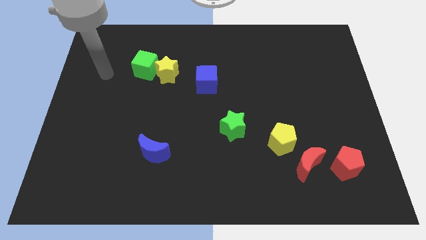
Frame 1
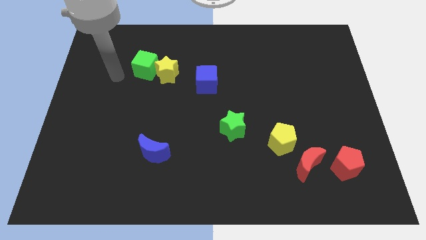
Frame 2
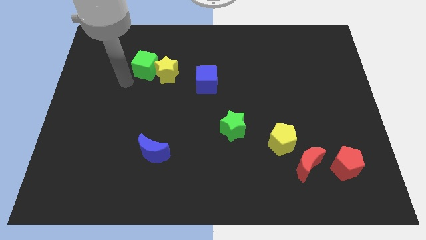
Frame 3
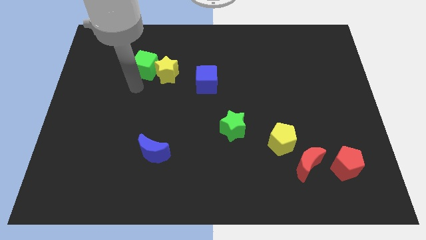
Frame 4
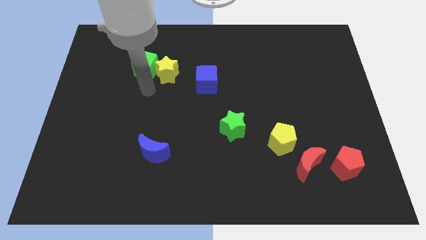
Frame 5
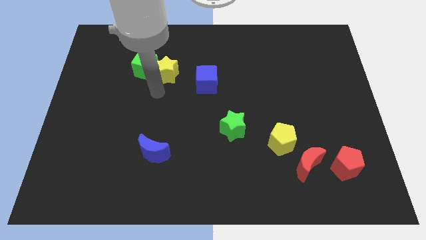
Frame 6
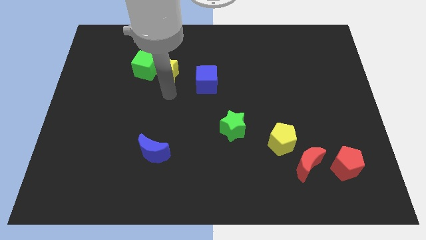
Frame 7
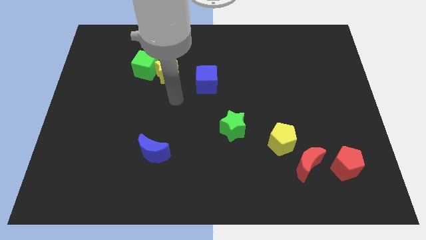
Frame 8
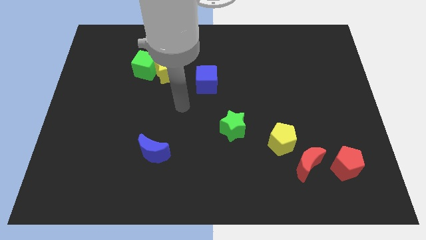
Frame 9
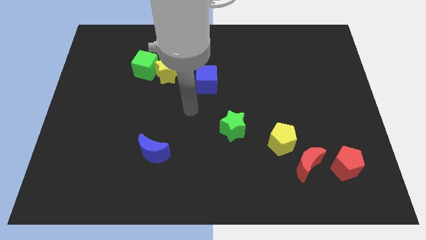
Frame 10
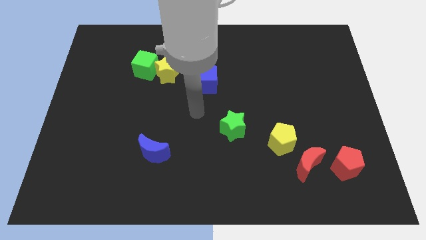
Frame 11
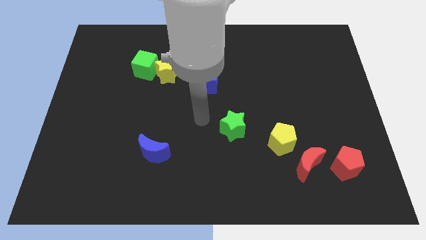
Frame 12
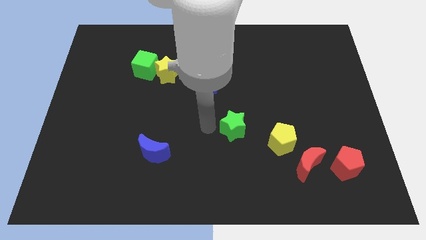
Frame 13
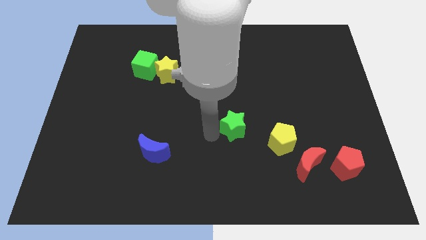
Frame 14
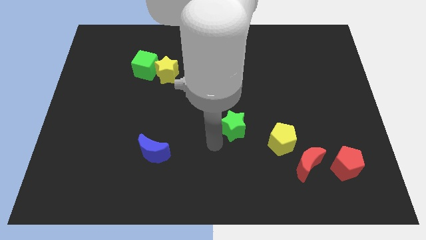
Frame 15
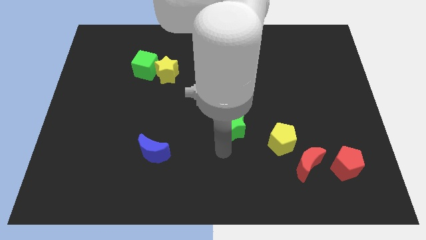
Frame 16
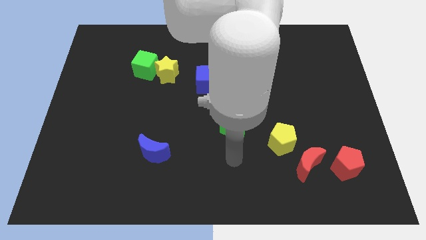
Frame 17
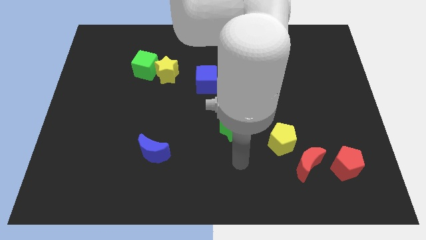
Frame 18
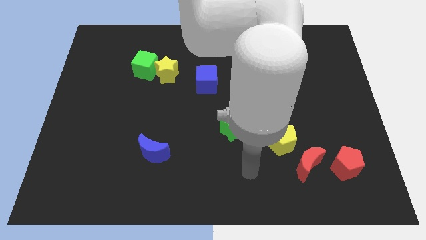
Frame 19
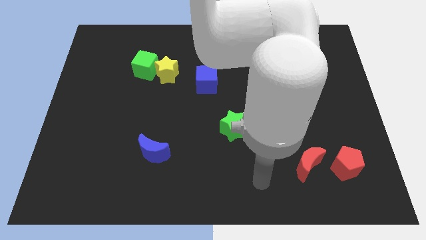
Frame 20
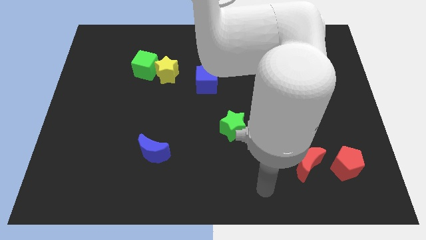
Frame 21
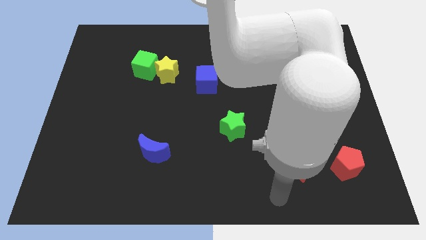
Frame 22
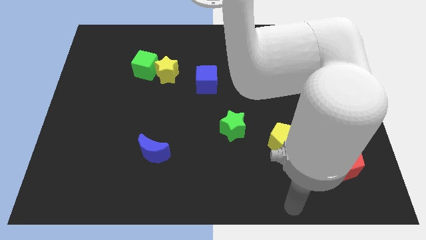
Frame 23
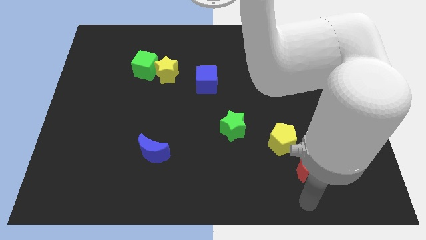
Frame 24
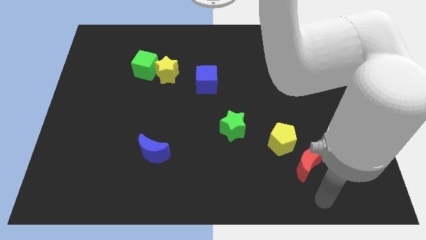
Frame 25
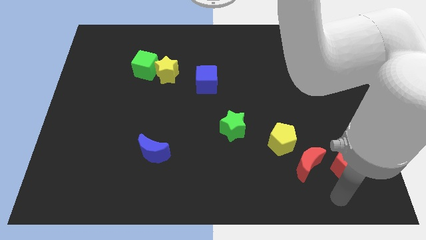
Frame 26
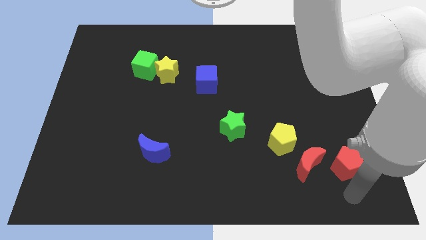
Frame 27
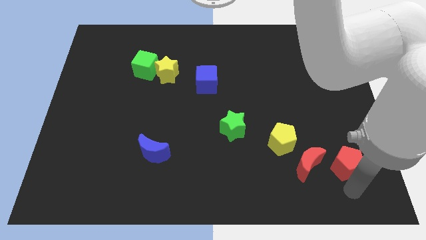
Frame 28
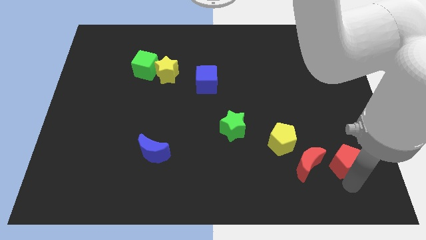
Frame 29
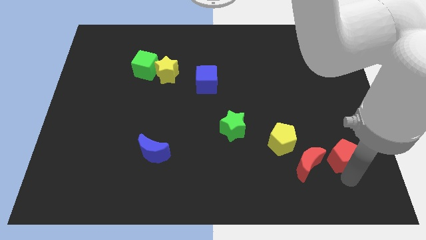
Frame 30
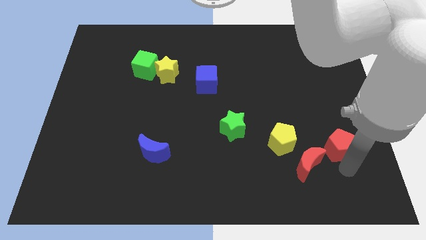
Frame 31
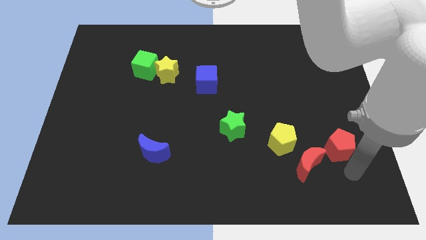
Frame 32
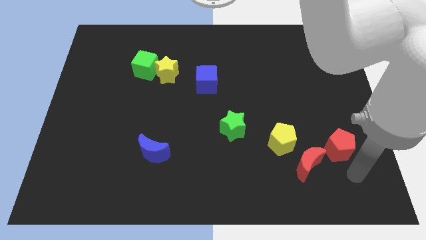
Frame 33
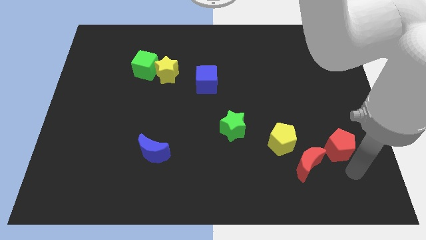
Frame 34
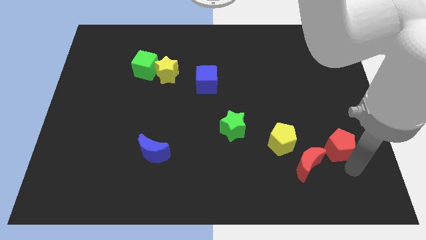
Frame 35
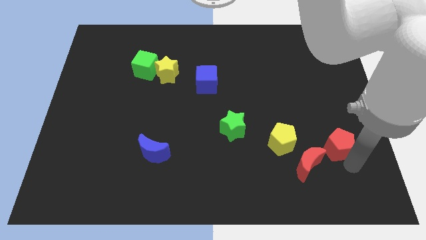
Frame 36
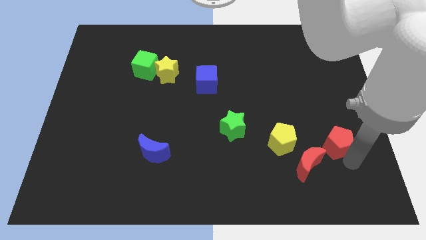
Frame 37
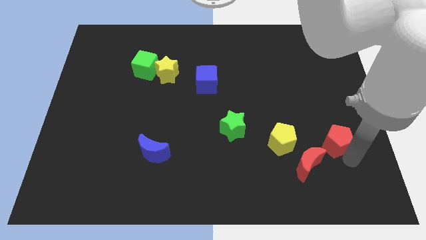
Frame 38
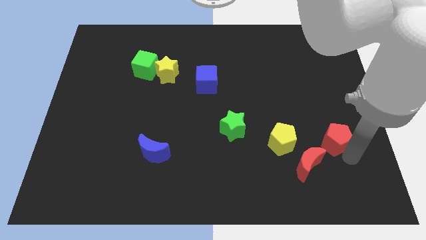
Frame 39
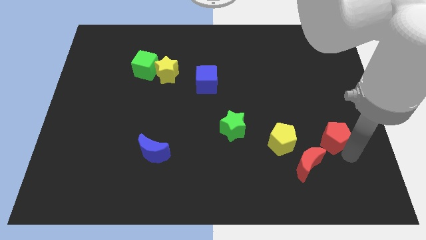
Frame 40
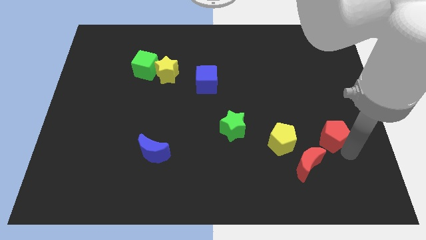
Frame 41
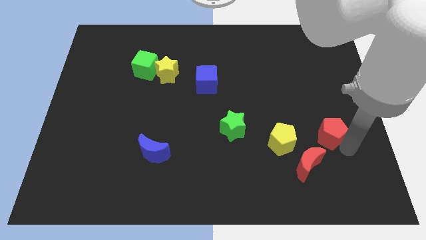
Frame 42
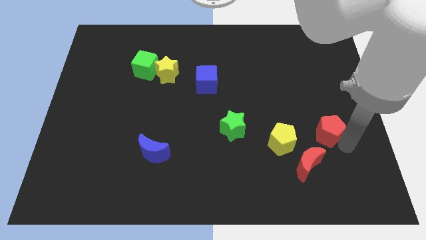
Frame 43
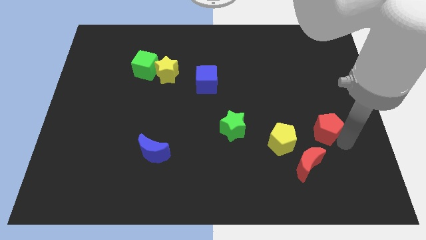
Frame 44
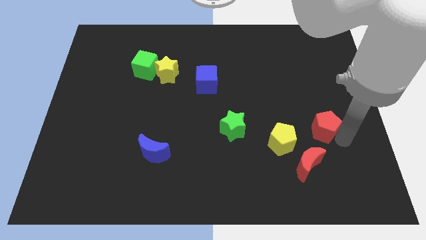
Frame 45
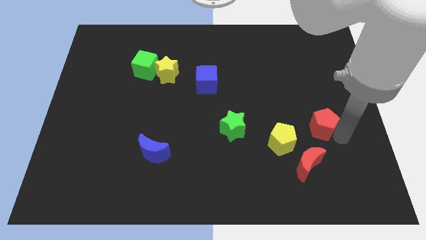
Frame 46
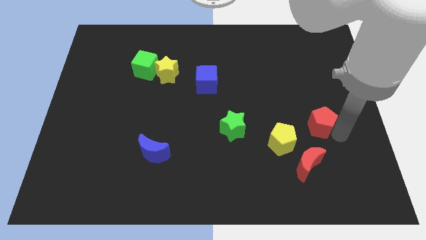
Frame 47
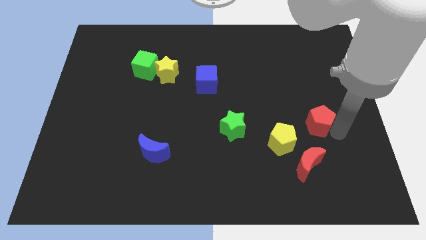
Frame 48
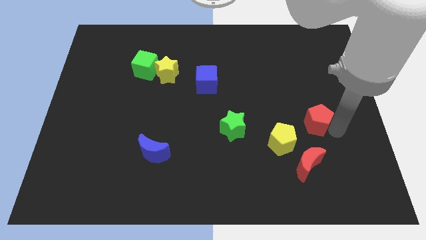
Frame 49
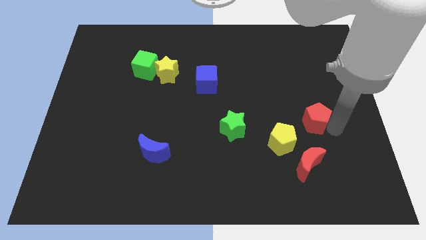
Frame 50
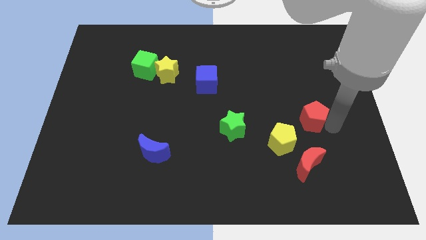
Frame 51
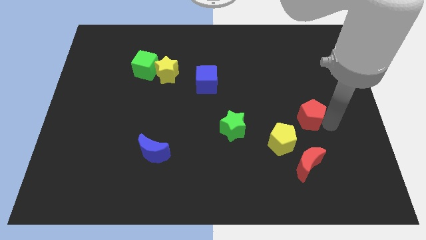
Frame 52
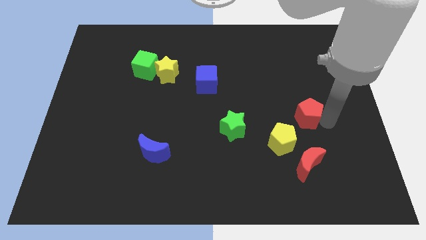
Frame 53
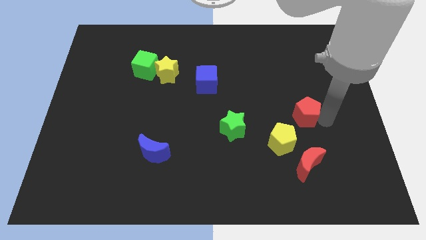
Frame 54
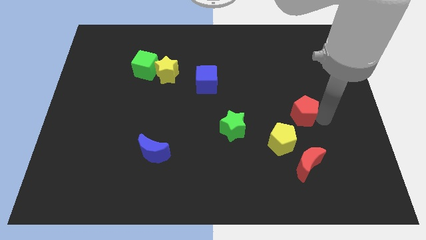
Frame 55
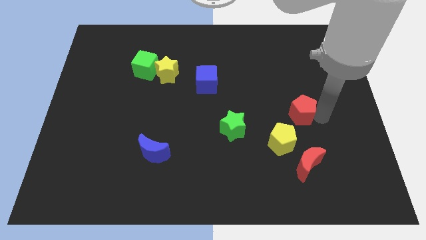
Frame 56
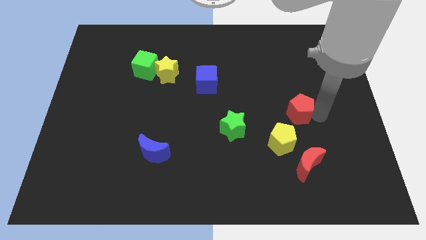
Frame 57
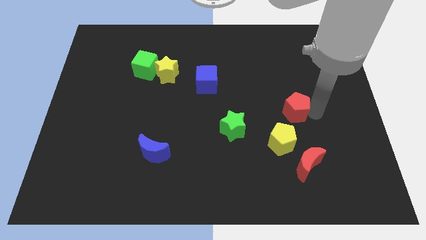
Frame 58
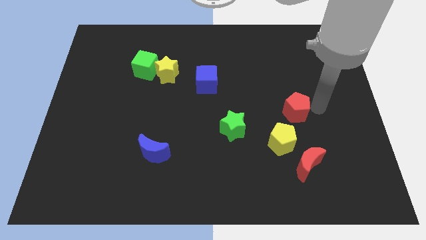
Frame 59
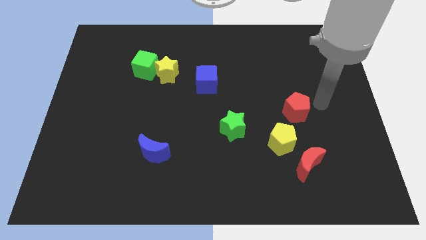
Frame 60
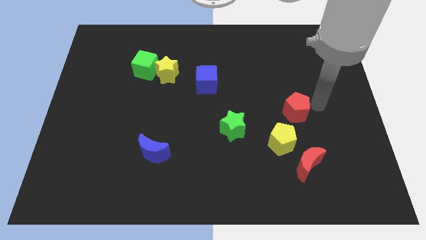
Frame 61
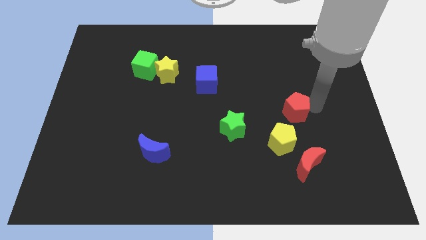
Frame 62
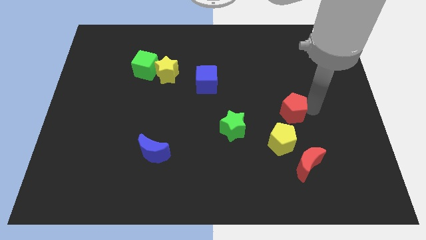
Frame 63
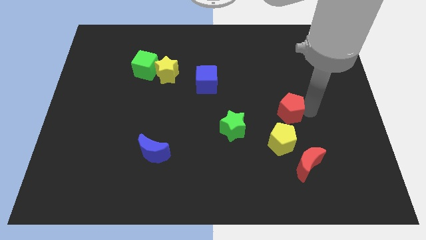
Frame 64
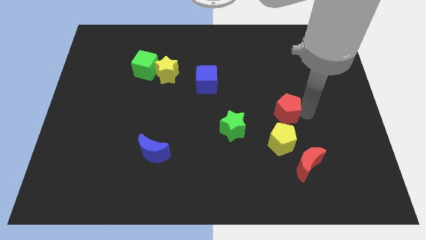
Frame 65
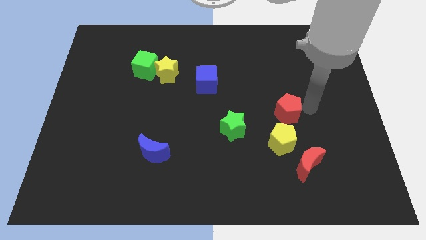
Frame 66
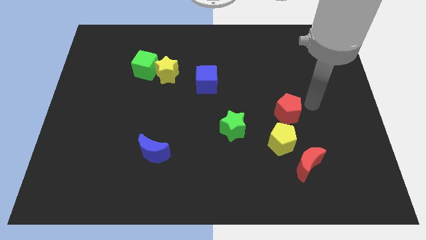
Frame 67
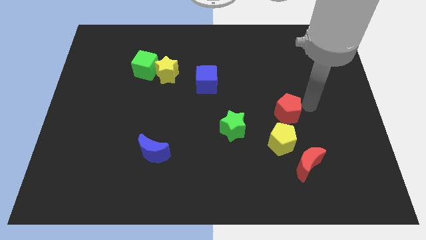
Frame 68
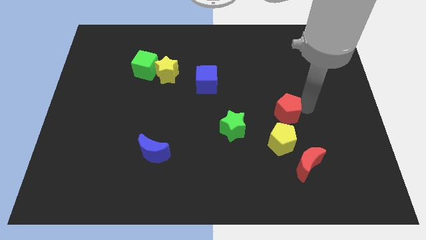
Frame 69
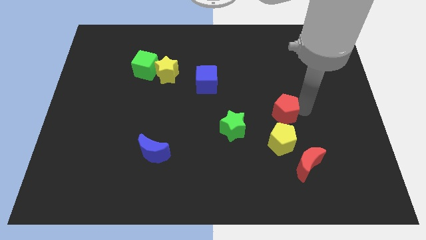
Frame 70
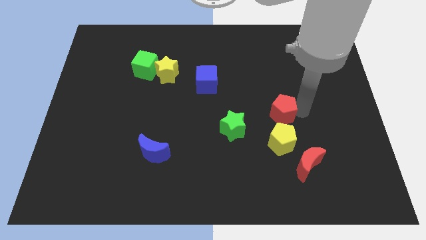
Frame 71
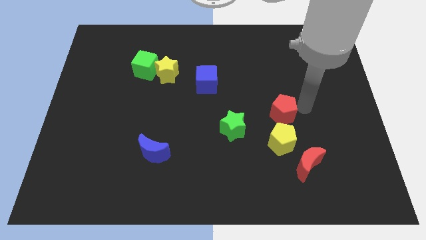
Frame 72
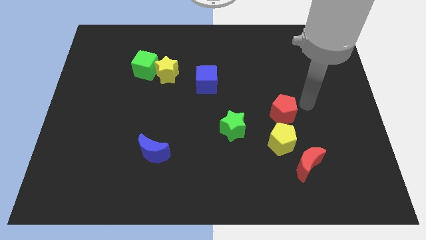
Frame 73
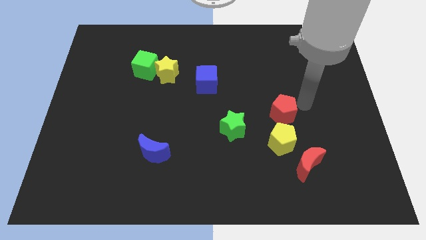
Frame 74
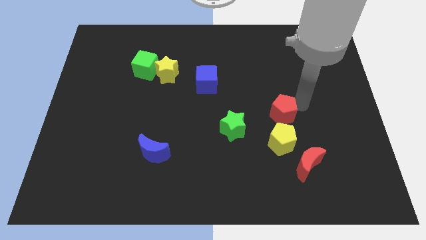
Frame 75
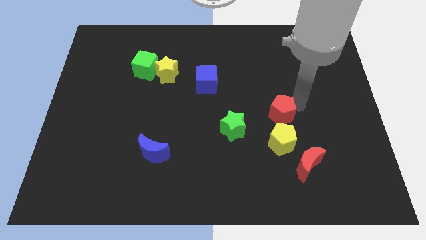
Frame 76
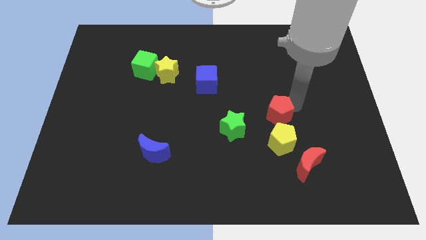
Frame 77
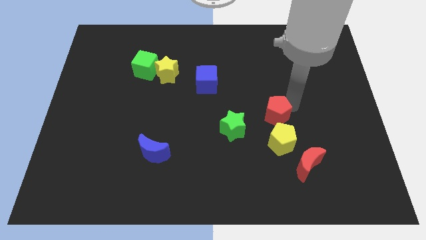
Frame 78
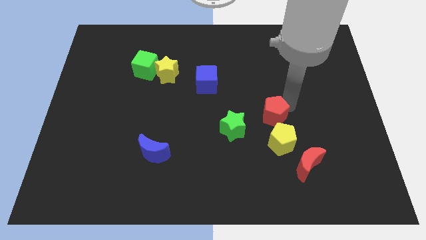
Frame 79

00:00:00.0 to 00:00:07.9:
push the red pentagon to the top left of the yellow pentagon
